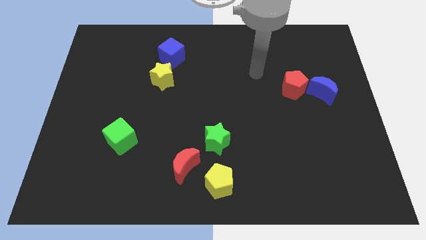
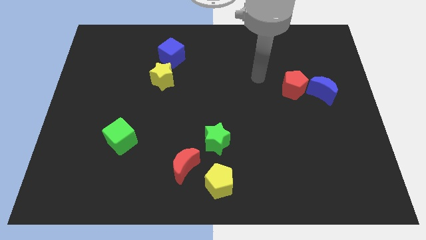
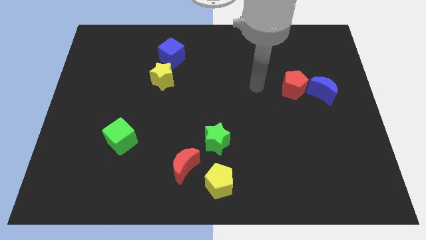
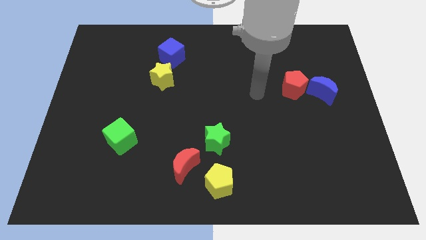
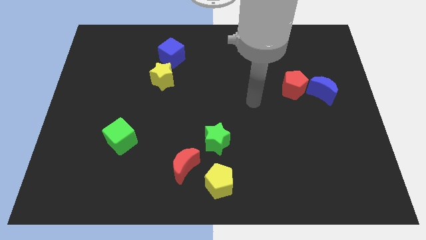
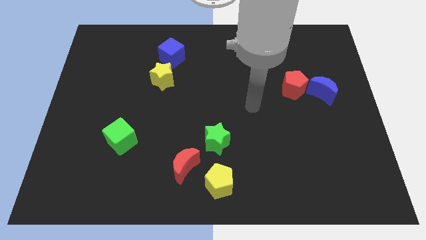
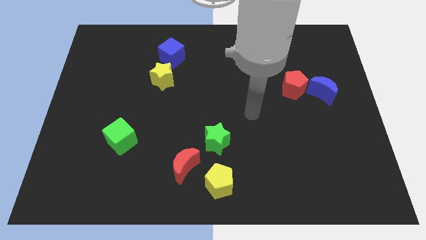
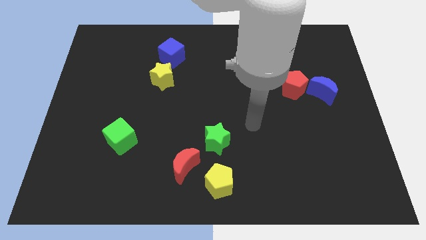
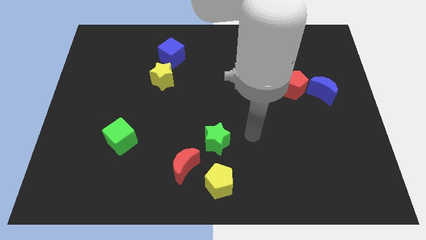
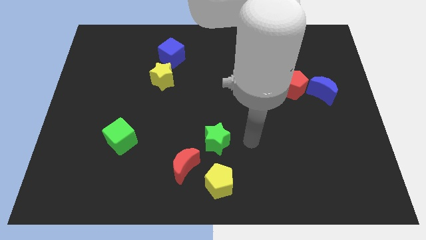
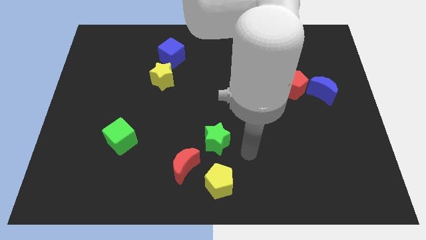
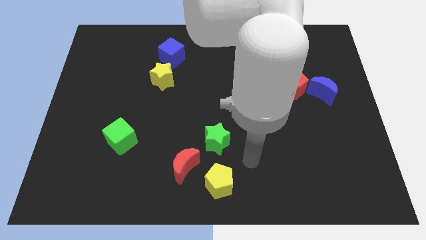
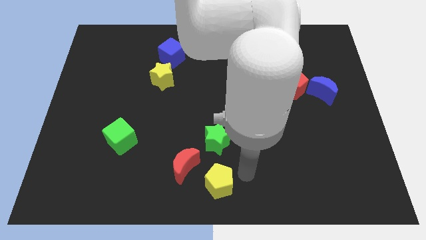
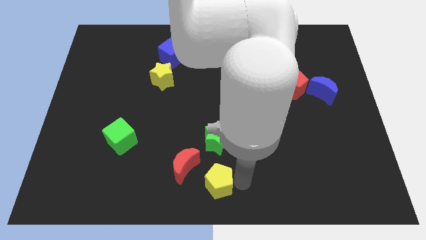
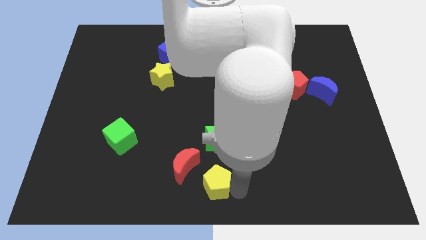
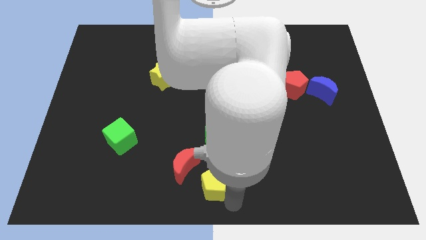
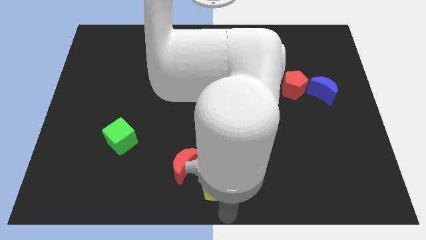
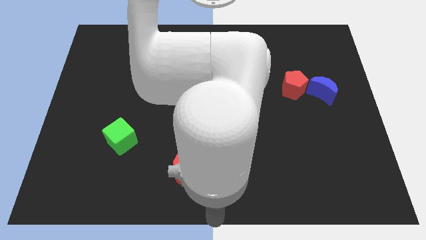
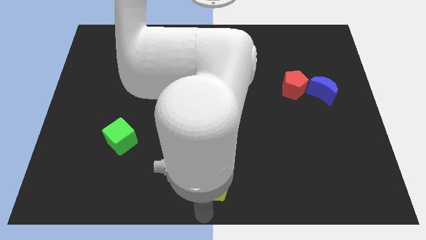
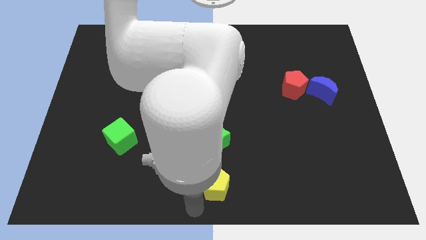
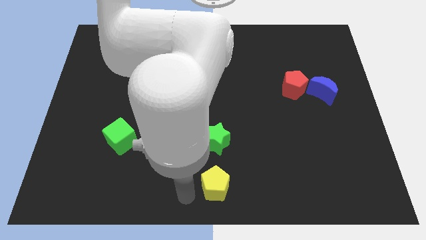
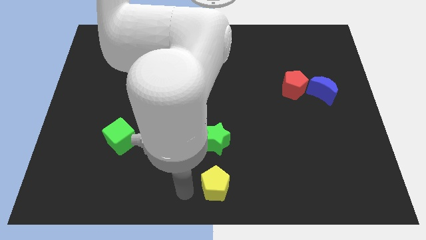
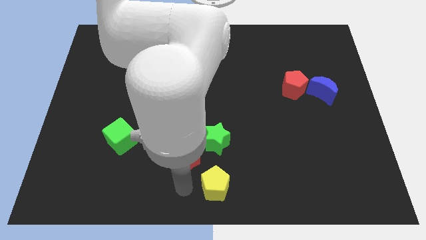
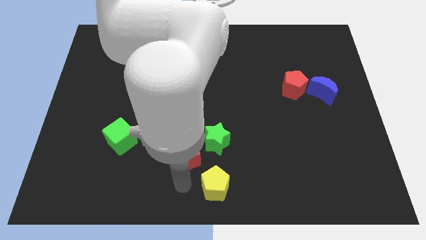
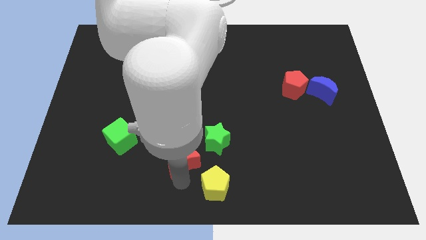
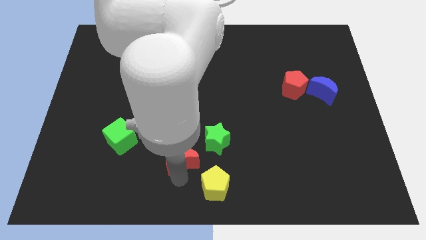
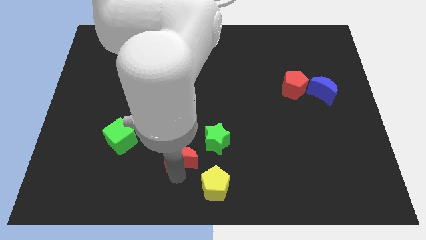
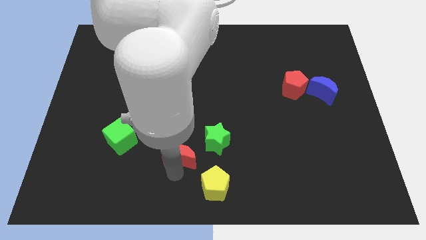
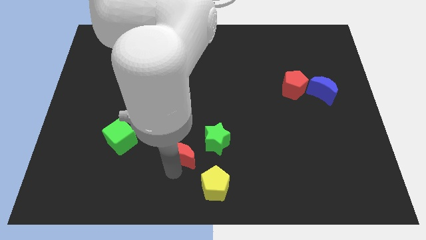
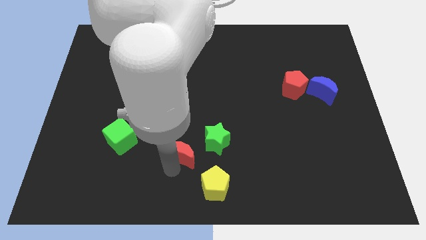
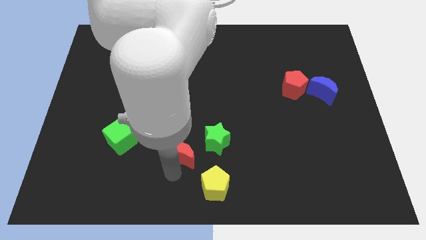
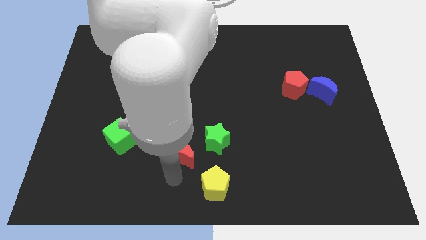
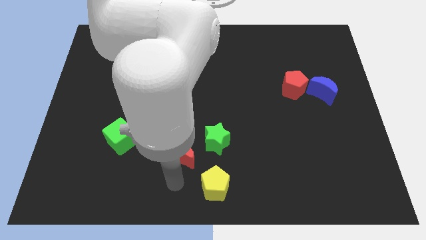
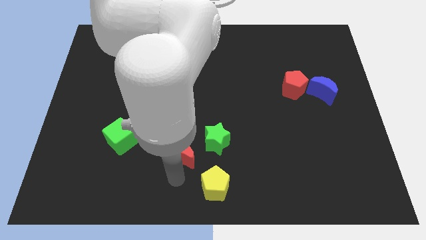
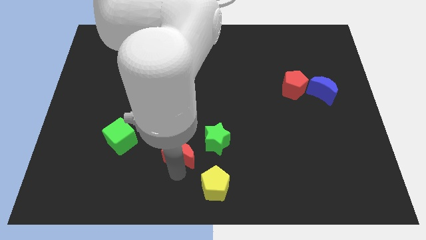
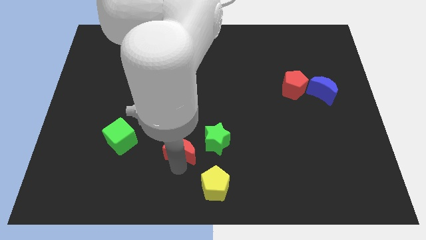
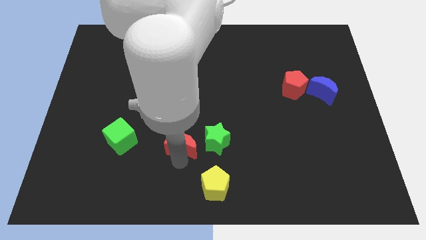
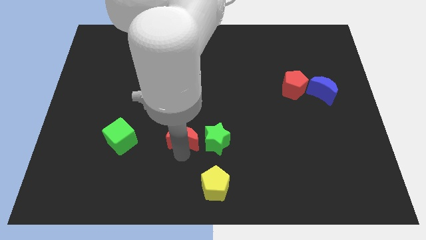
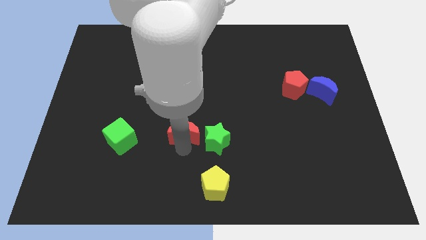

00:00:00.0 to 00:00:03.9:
push the red moon a little upwards

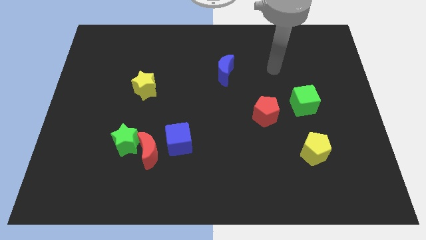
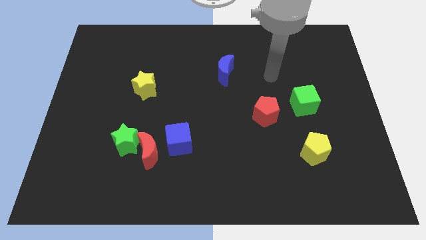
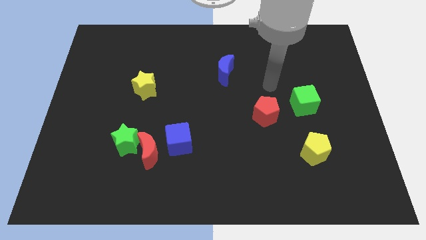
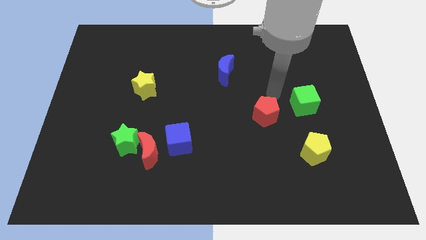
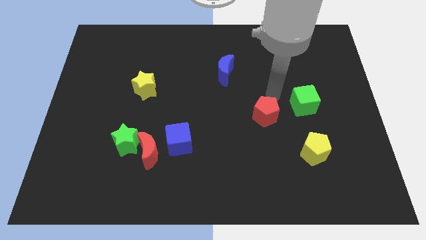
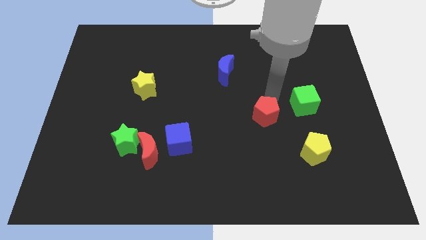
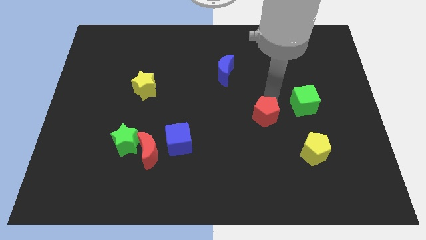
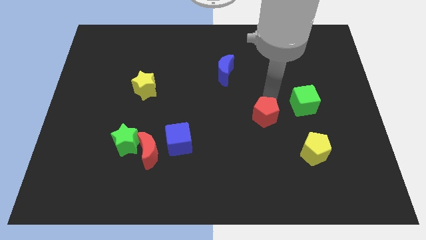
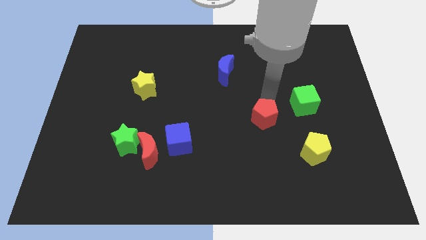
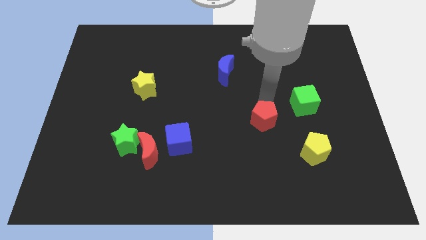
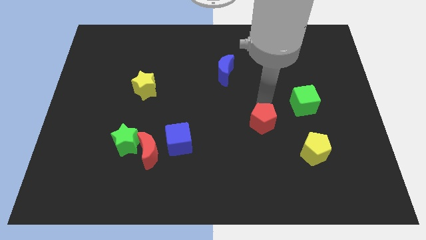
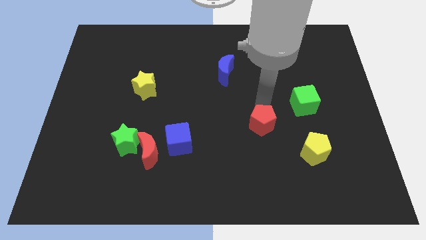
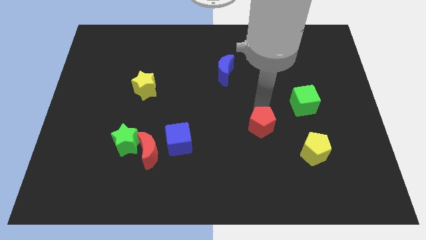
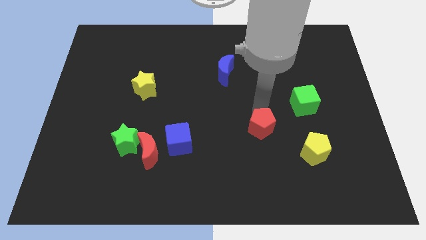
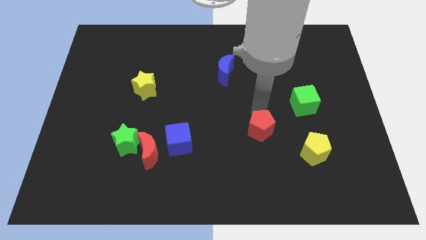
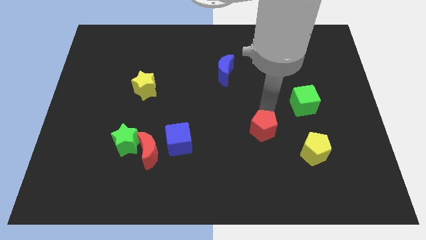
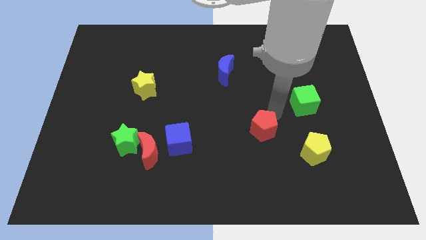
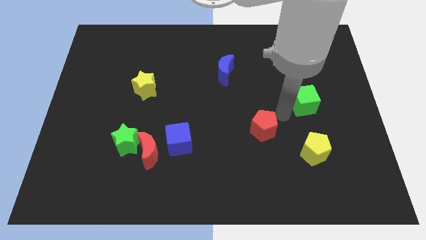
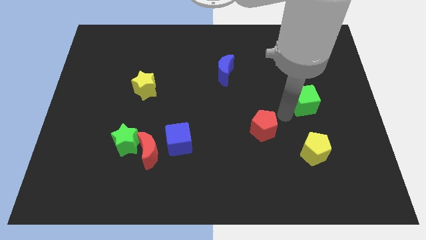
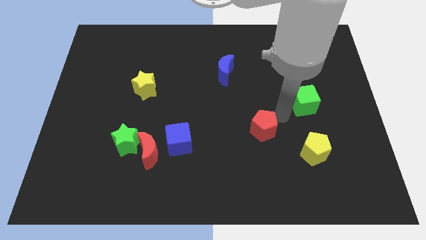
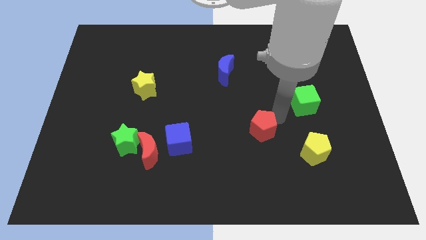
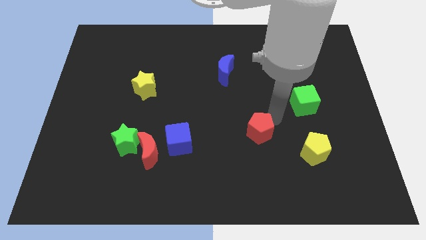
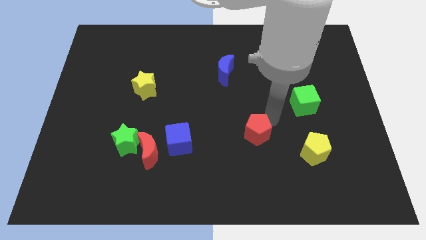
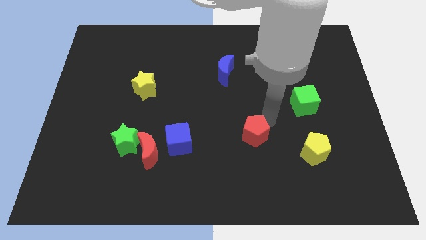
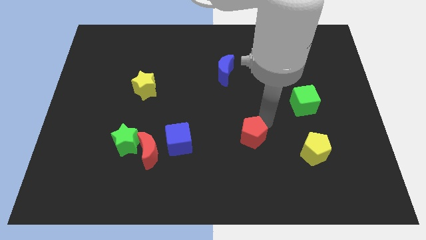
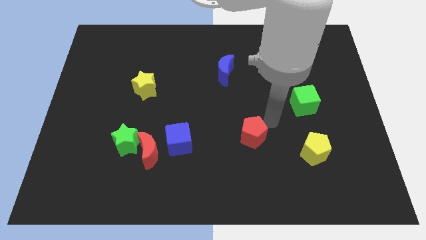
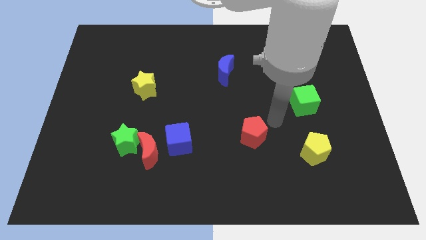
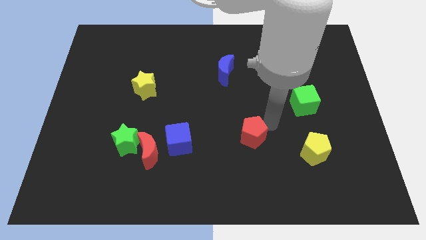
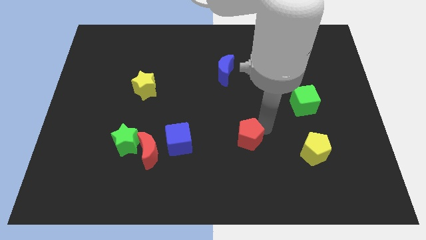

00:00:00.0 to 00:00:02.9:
move the red pentagon down and left somewhat

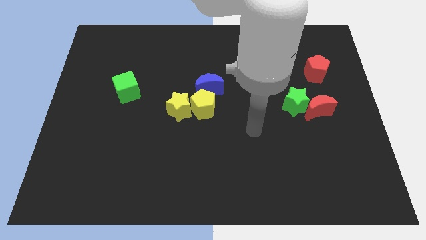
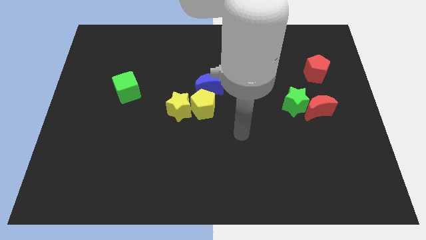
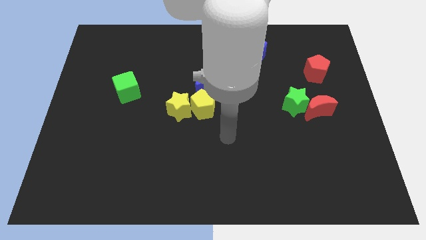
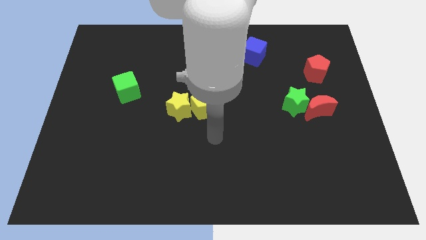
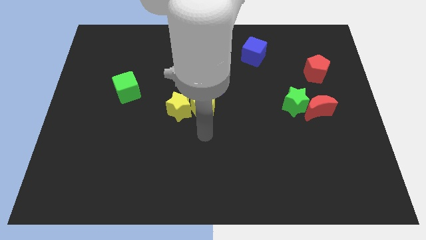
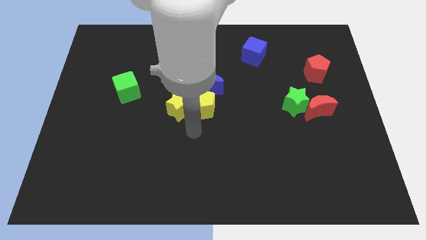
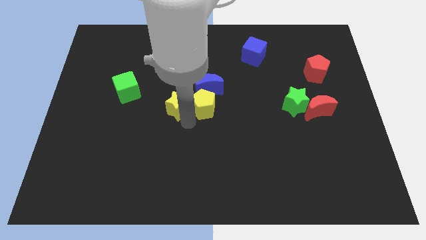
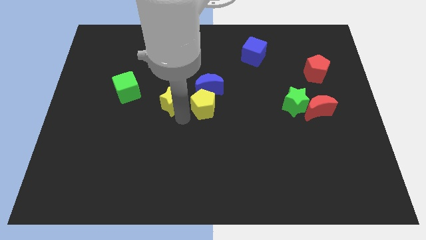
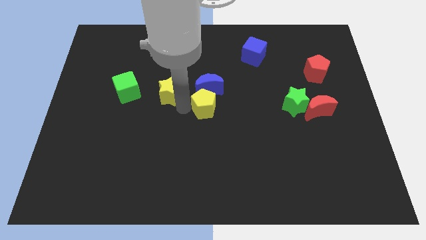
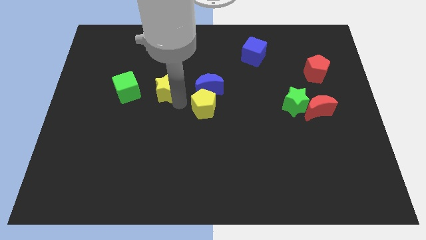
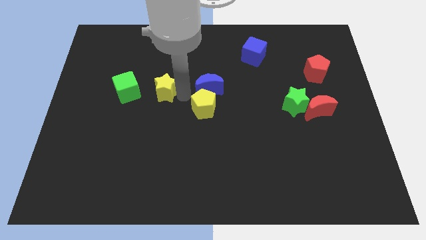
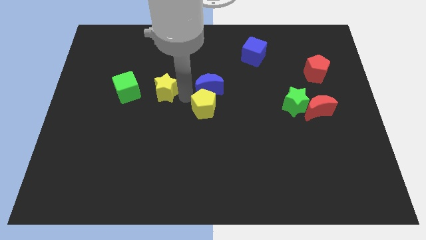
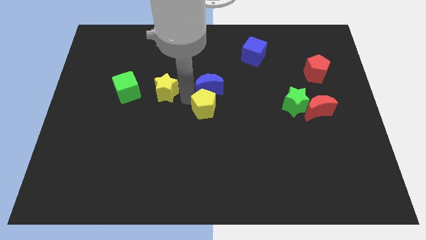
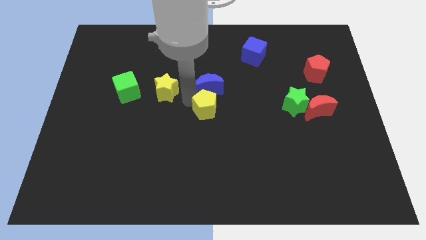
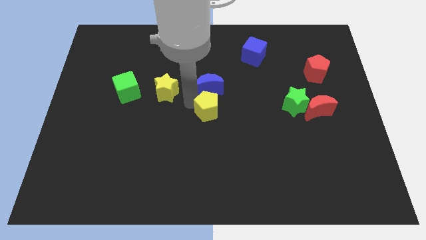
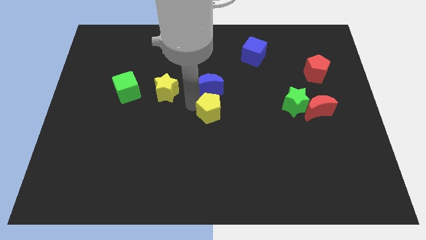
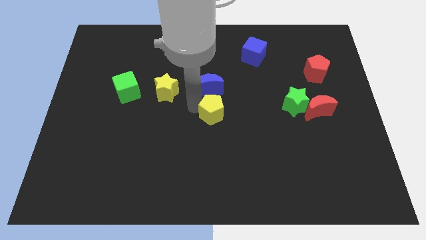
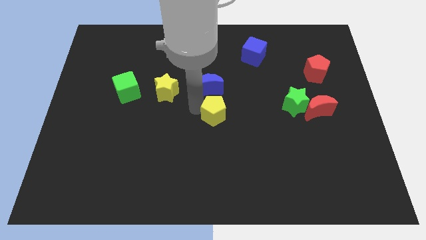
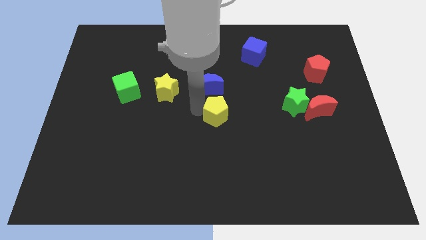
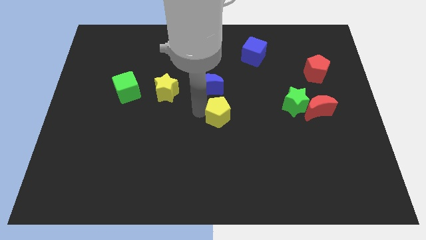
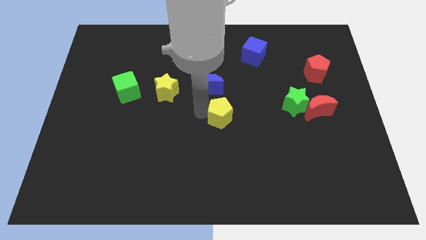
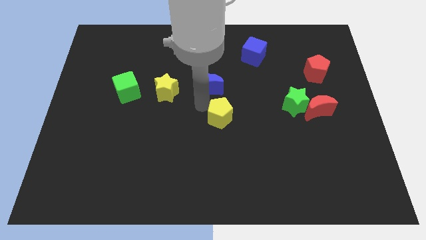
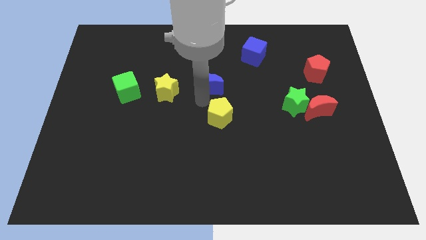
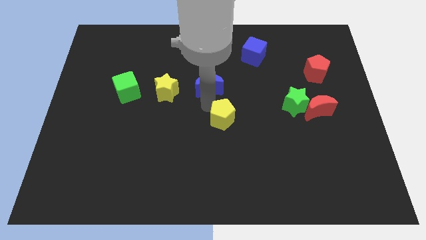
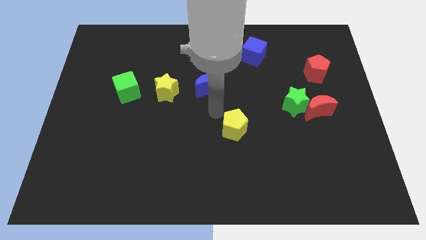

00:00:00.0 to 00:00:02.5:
slightly slide the yellow pentagon downwards and to the right
